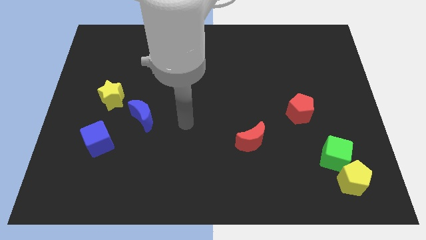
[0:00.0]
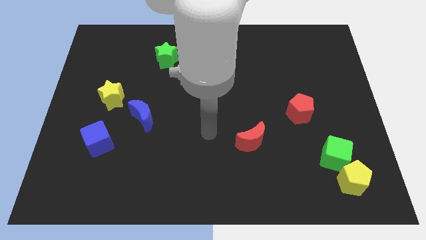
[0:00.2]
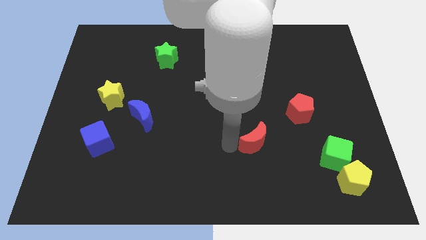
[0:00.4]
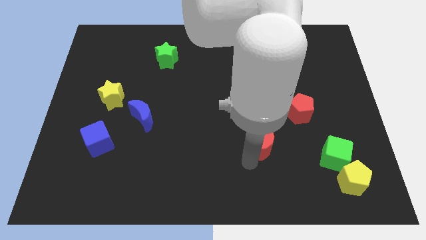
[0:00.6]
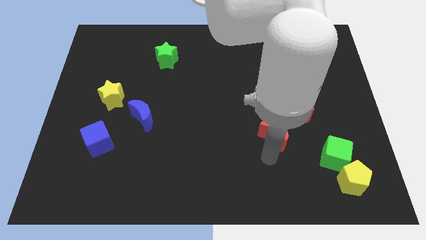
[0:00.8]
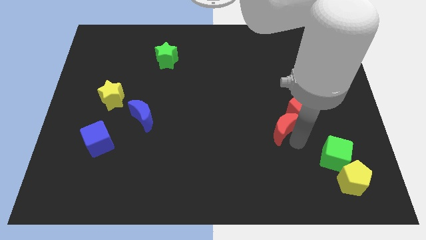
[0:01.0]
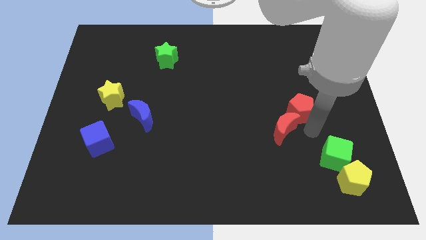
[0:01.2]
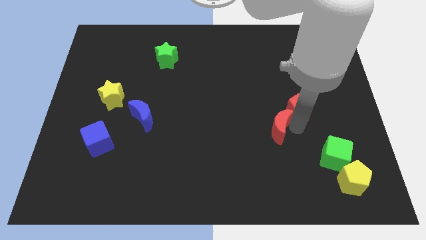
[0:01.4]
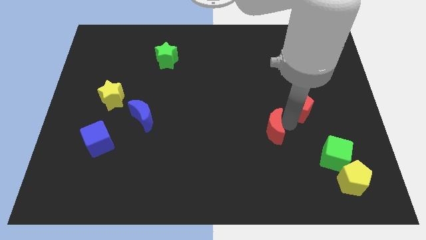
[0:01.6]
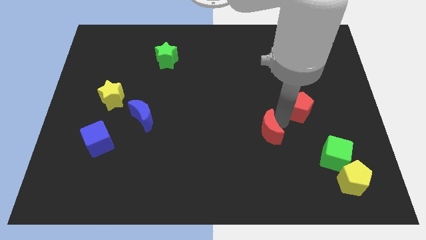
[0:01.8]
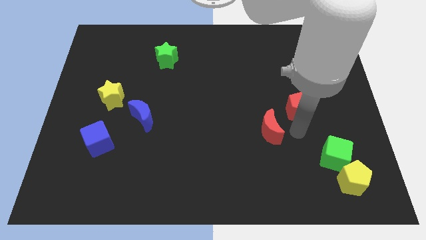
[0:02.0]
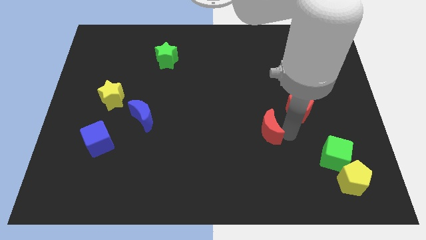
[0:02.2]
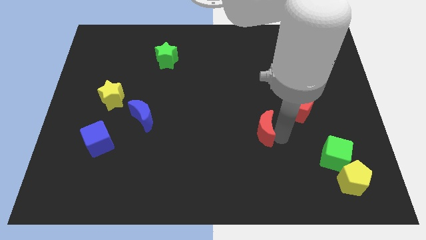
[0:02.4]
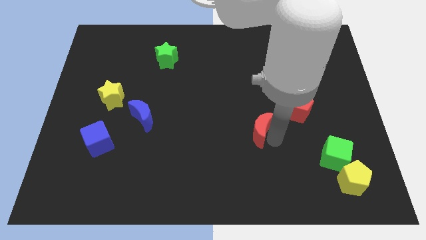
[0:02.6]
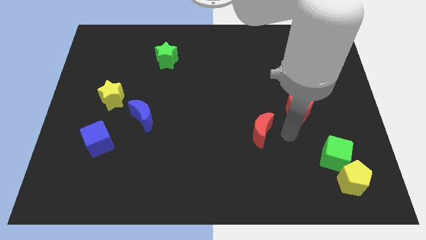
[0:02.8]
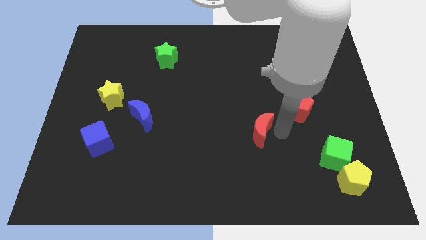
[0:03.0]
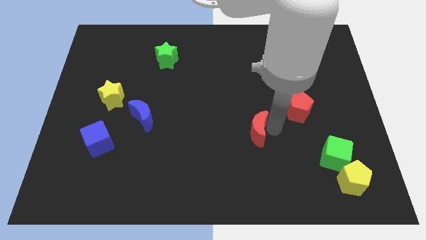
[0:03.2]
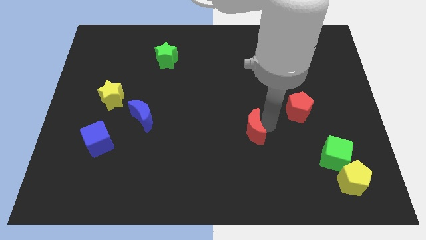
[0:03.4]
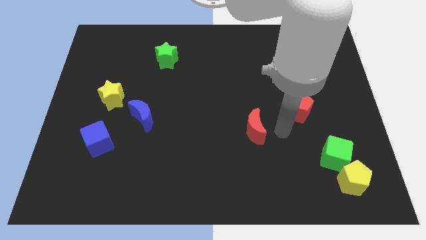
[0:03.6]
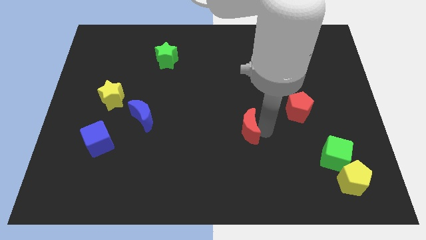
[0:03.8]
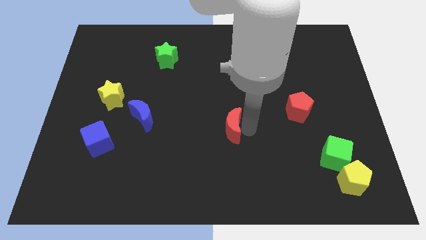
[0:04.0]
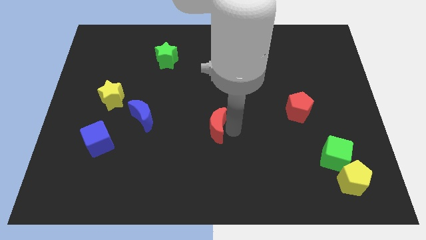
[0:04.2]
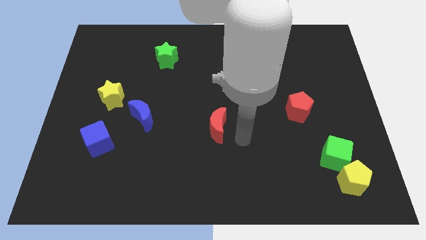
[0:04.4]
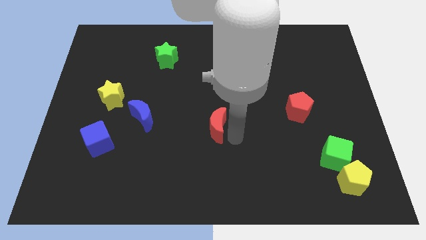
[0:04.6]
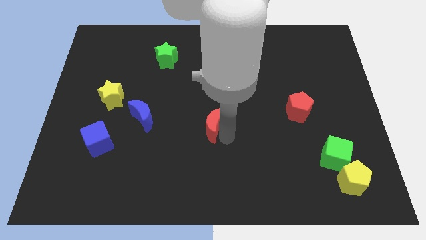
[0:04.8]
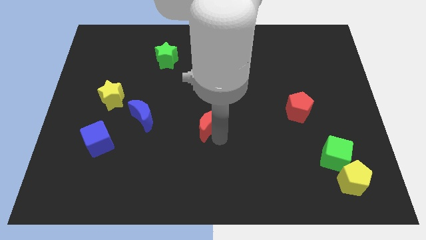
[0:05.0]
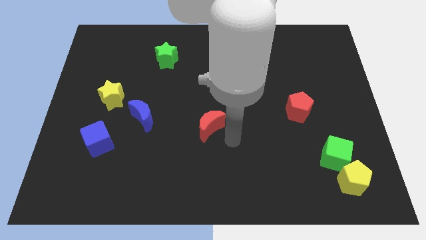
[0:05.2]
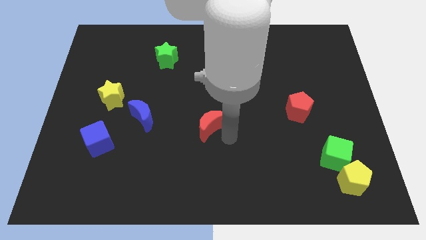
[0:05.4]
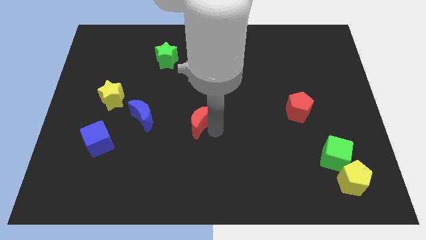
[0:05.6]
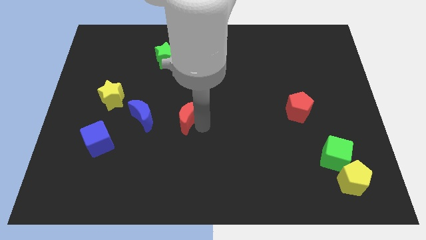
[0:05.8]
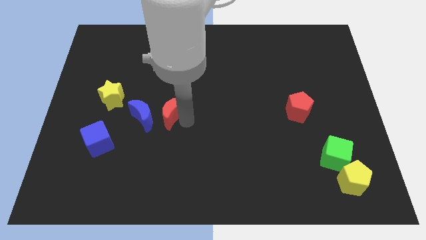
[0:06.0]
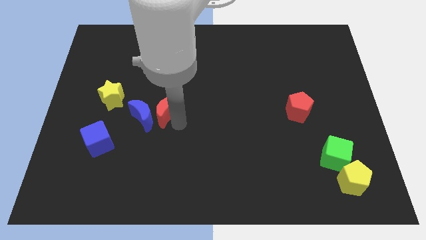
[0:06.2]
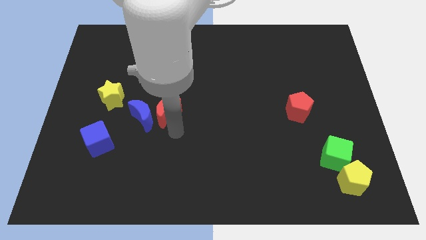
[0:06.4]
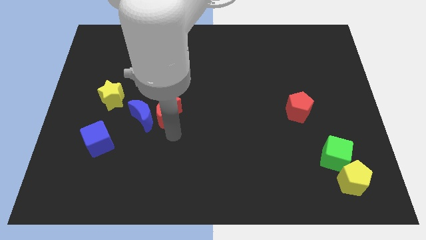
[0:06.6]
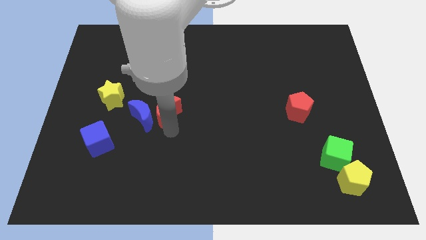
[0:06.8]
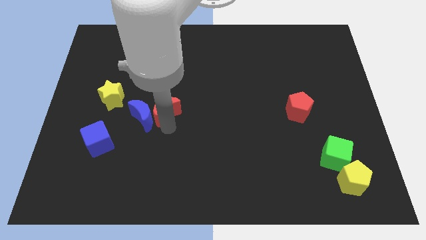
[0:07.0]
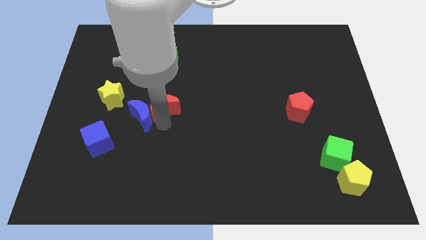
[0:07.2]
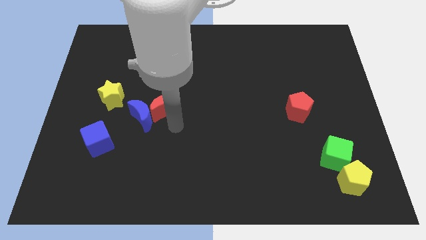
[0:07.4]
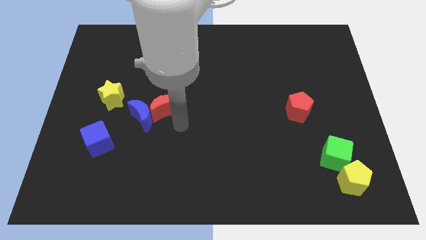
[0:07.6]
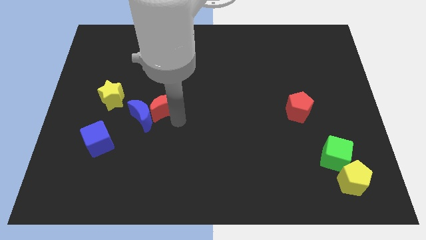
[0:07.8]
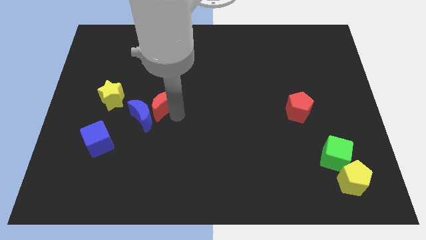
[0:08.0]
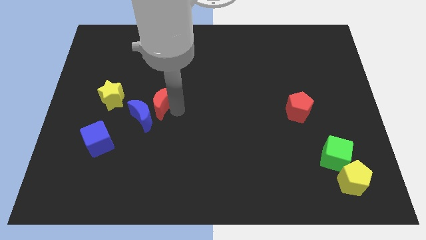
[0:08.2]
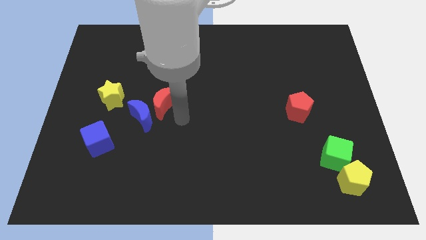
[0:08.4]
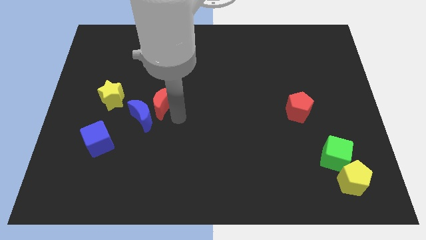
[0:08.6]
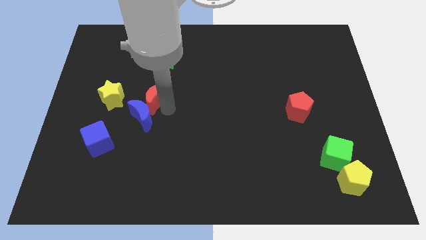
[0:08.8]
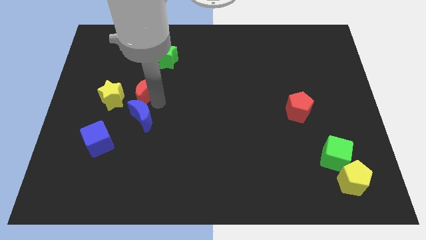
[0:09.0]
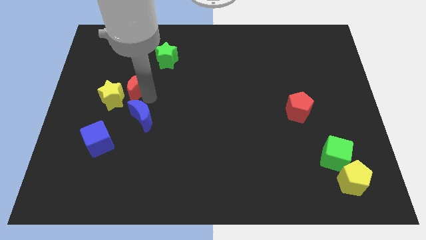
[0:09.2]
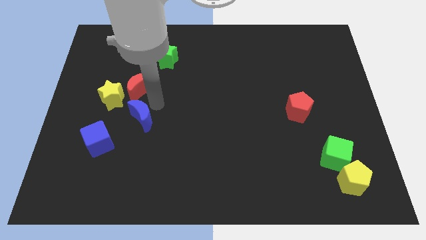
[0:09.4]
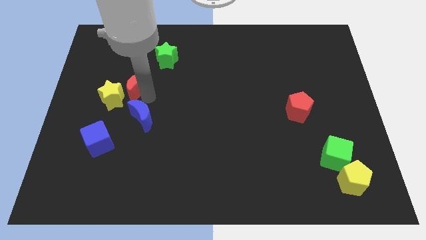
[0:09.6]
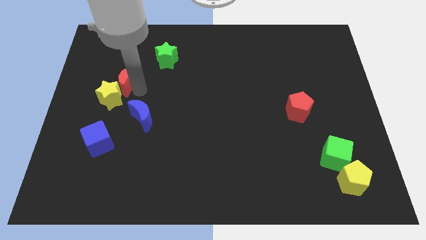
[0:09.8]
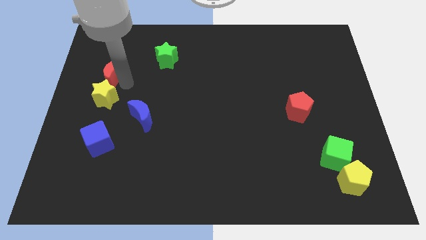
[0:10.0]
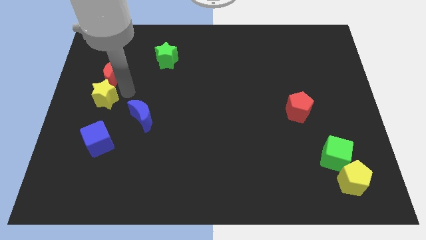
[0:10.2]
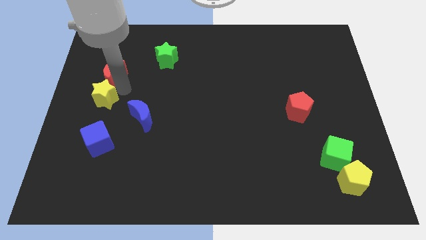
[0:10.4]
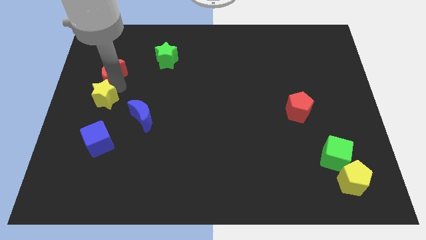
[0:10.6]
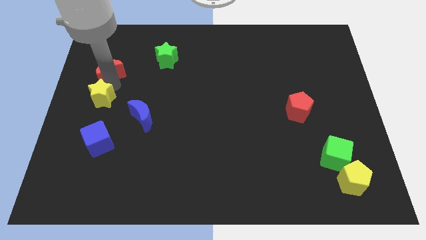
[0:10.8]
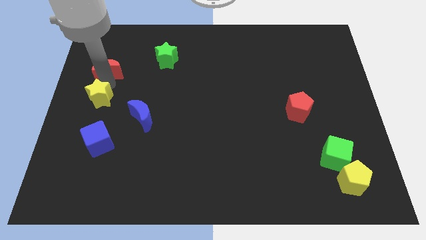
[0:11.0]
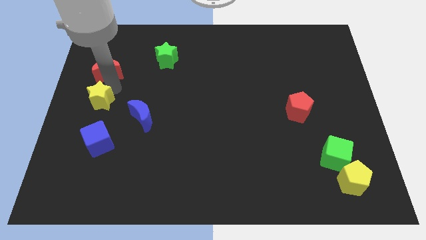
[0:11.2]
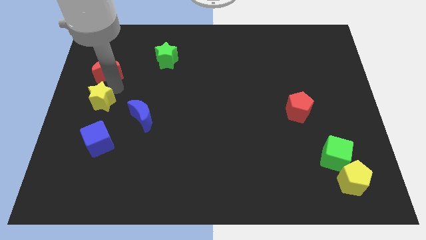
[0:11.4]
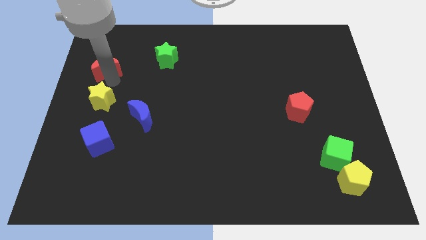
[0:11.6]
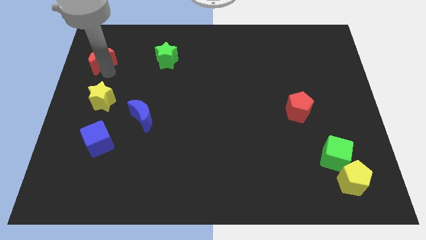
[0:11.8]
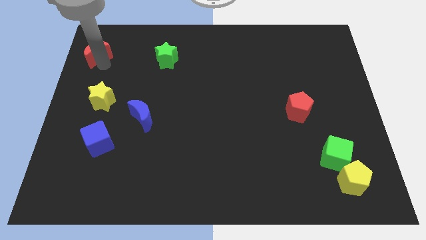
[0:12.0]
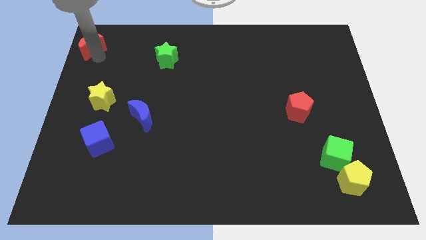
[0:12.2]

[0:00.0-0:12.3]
push the red moon to the top left of the board
